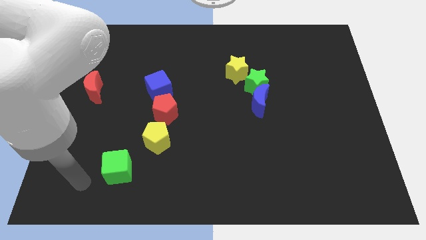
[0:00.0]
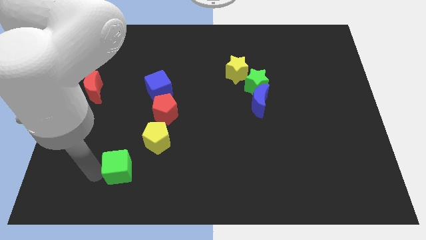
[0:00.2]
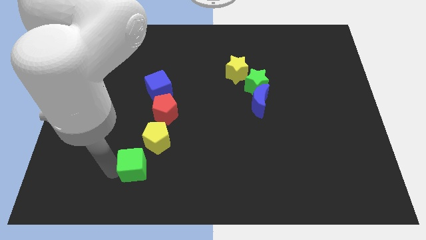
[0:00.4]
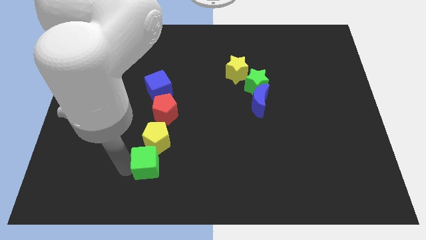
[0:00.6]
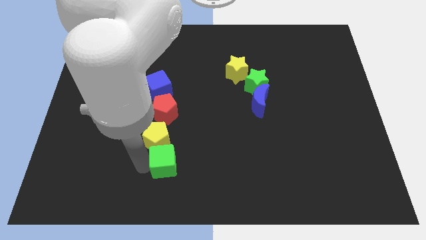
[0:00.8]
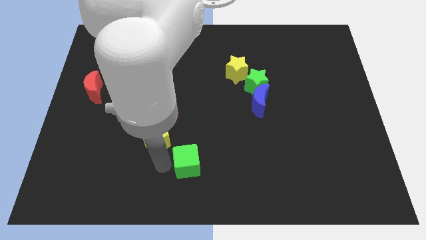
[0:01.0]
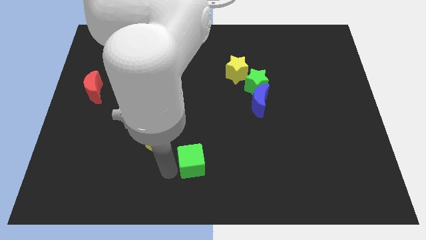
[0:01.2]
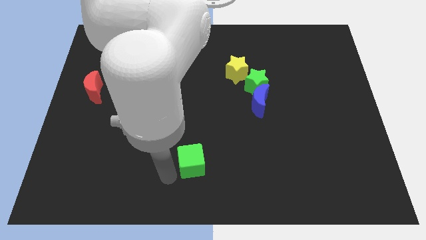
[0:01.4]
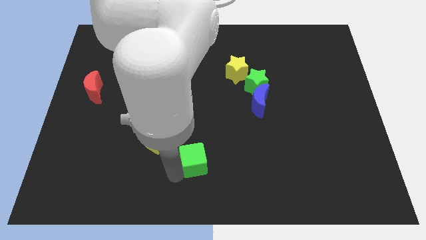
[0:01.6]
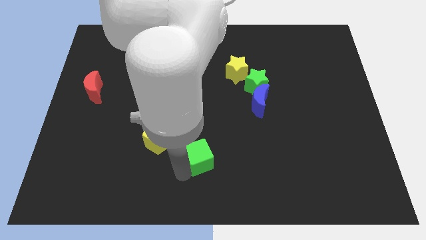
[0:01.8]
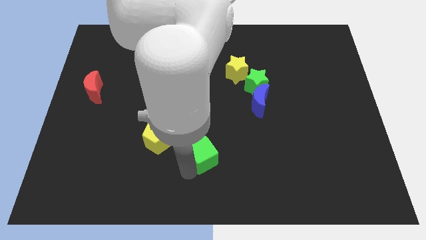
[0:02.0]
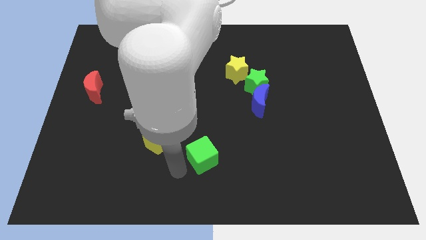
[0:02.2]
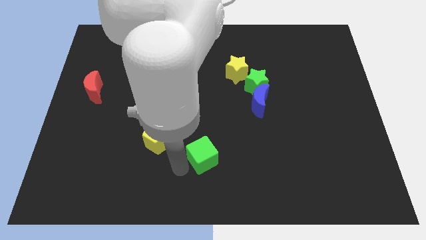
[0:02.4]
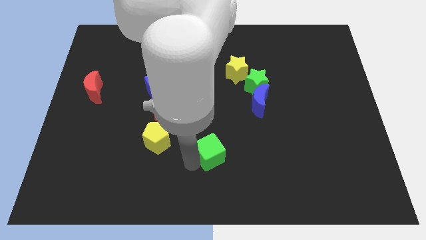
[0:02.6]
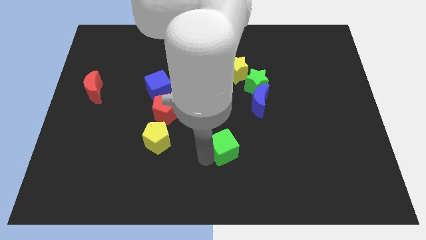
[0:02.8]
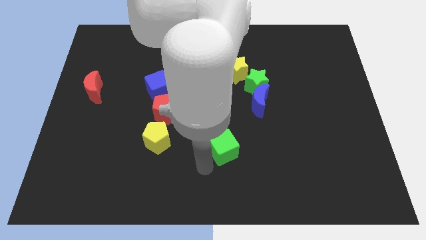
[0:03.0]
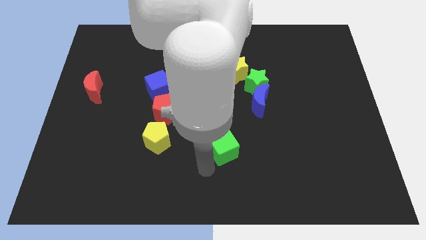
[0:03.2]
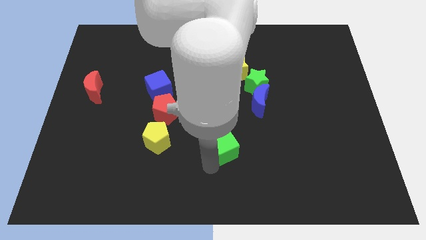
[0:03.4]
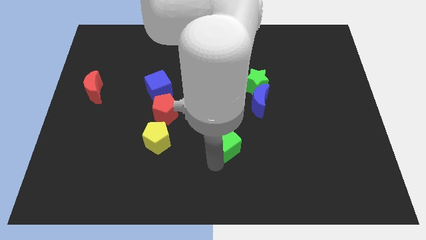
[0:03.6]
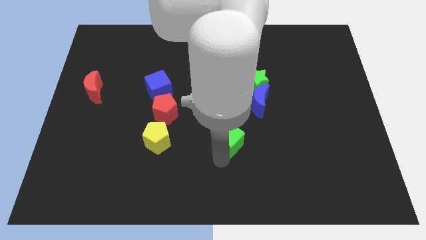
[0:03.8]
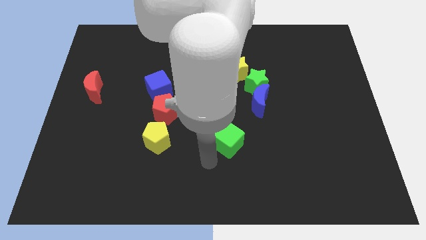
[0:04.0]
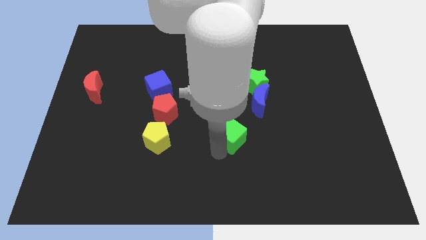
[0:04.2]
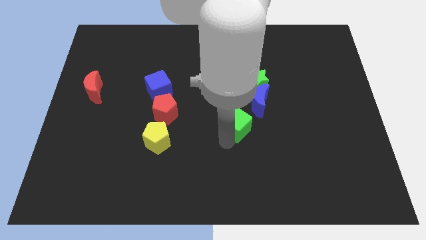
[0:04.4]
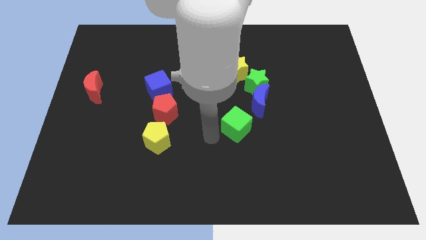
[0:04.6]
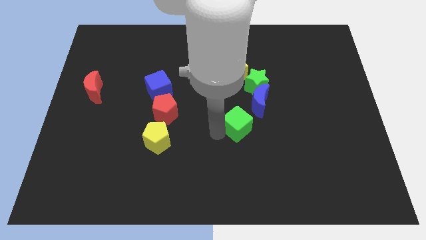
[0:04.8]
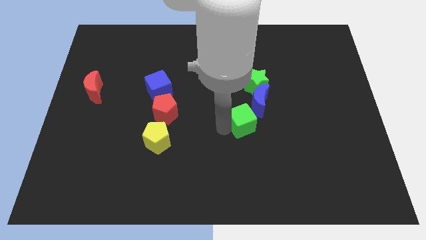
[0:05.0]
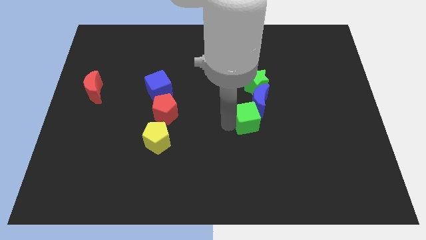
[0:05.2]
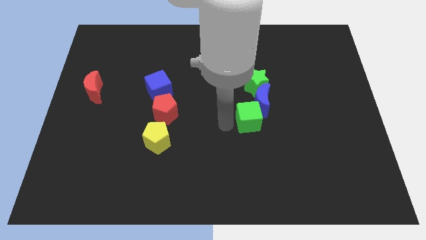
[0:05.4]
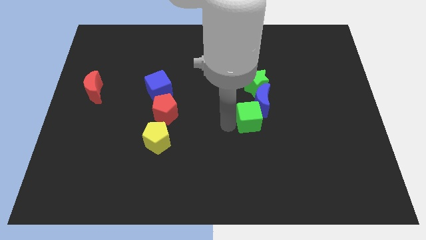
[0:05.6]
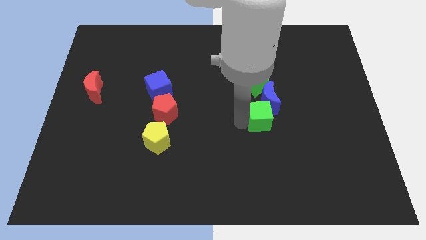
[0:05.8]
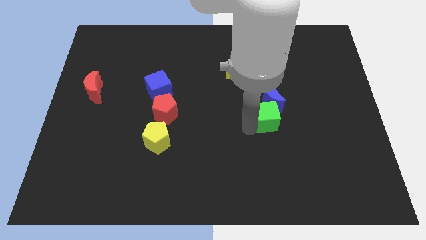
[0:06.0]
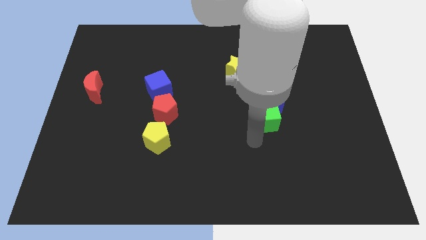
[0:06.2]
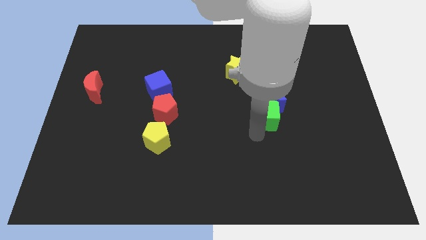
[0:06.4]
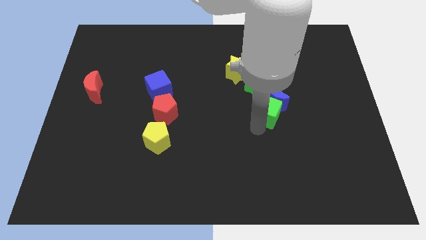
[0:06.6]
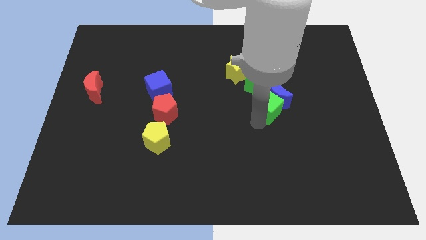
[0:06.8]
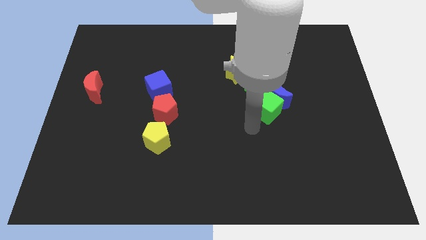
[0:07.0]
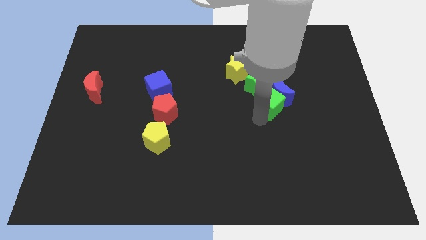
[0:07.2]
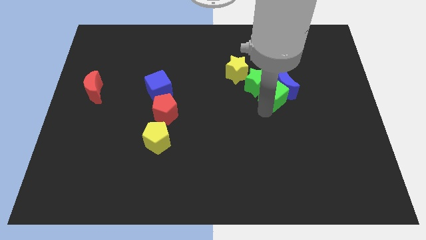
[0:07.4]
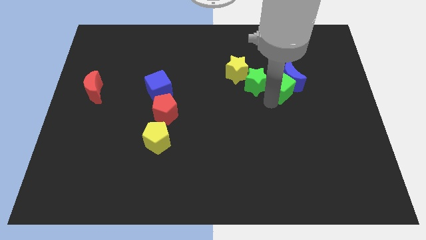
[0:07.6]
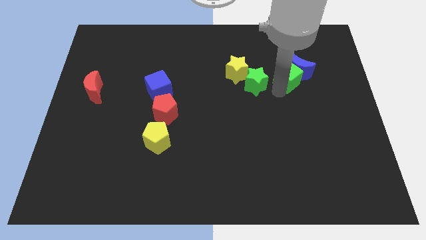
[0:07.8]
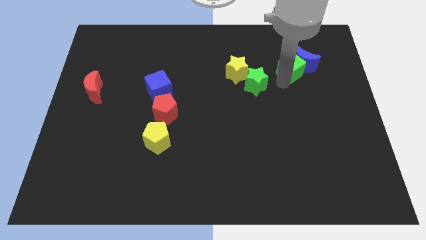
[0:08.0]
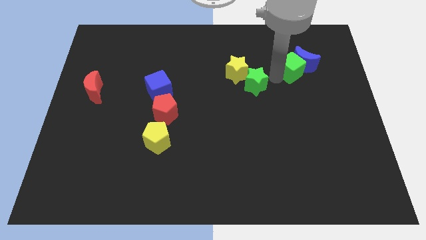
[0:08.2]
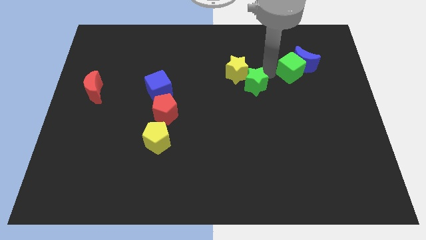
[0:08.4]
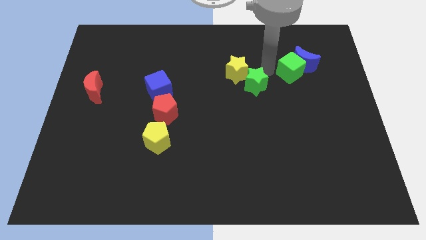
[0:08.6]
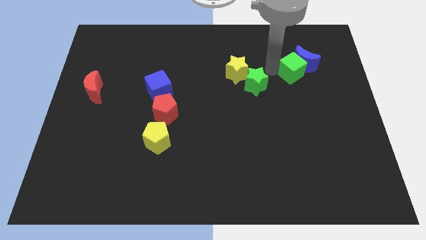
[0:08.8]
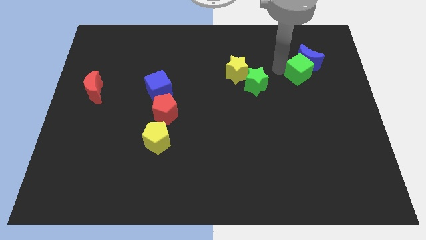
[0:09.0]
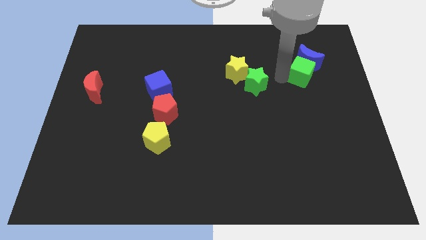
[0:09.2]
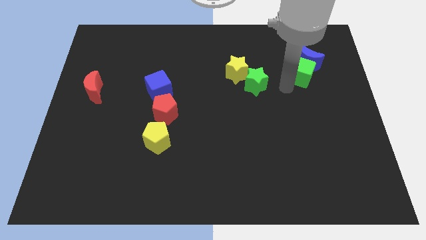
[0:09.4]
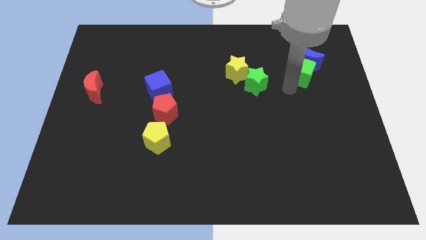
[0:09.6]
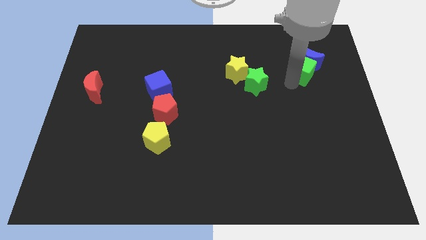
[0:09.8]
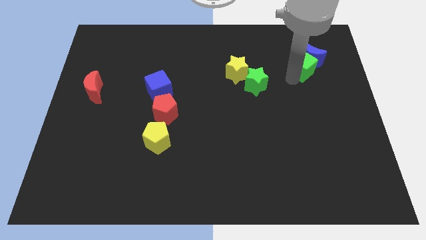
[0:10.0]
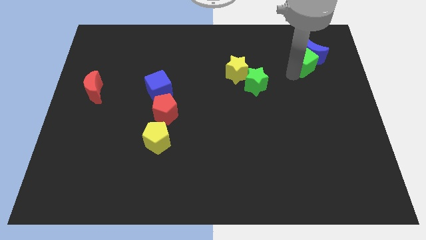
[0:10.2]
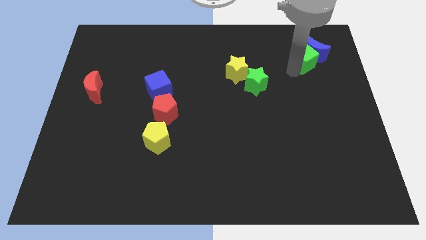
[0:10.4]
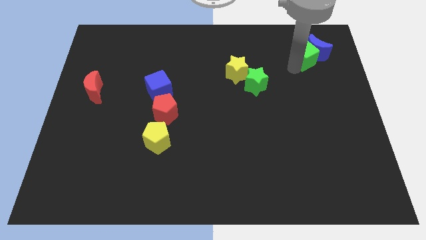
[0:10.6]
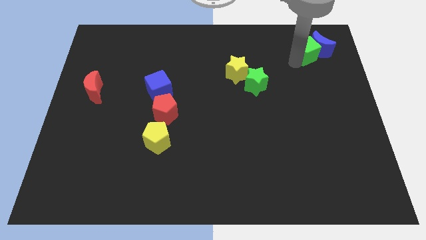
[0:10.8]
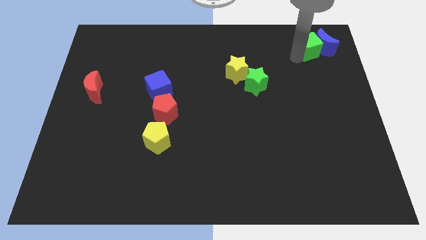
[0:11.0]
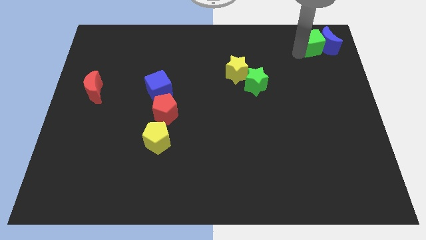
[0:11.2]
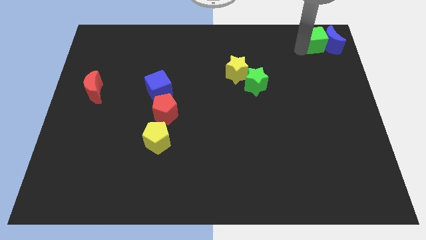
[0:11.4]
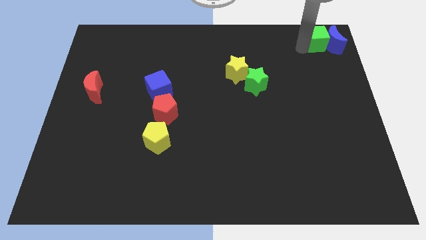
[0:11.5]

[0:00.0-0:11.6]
slide the green cube to the top right of the board
